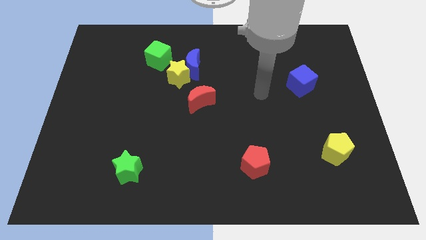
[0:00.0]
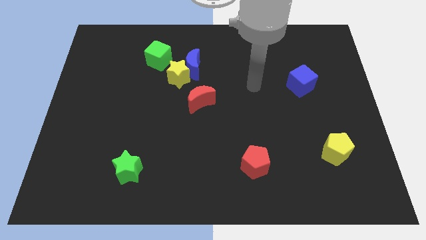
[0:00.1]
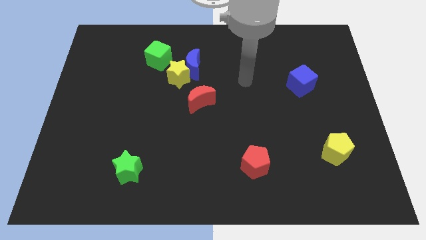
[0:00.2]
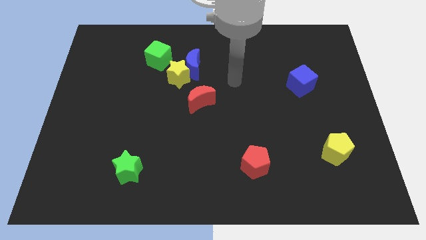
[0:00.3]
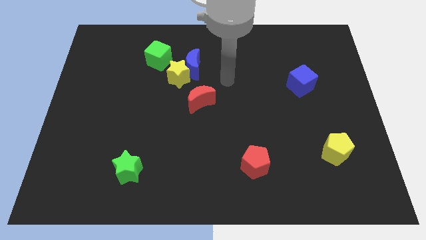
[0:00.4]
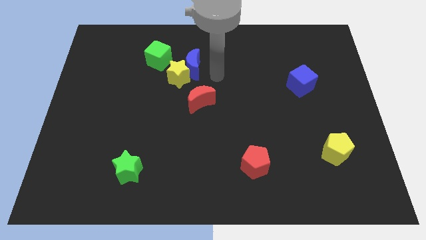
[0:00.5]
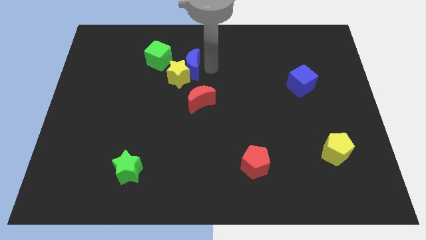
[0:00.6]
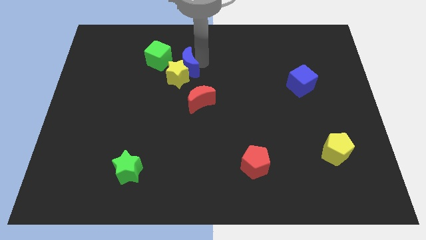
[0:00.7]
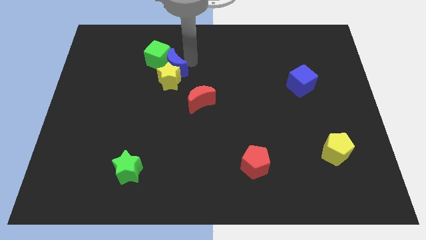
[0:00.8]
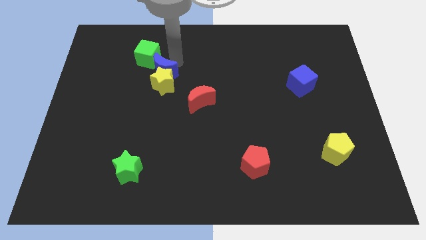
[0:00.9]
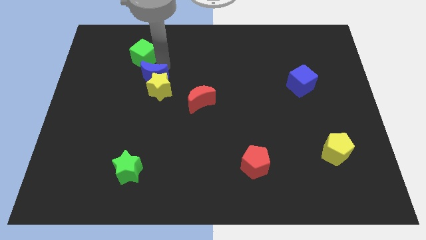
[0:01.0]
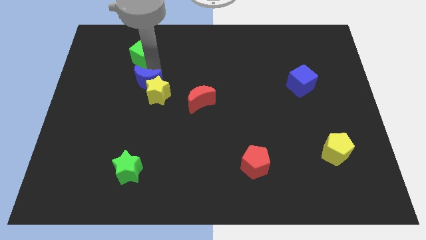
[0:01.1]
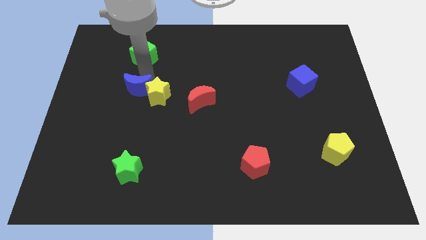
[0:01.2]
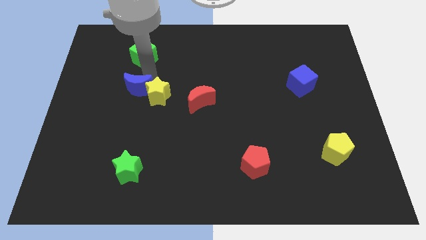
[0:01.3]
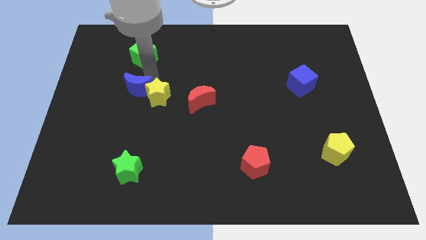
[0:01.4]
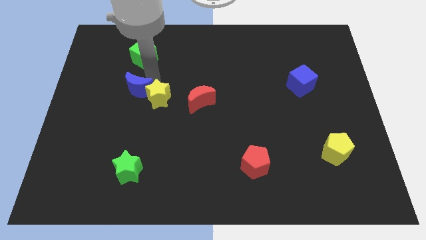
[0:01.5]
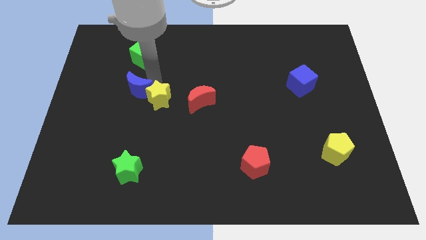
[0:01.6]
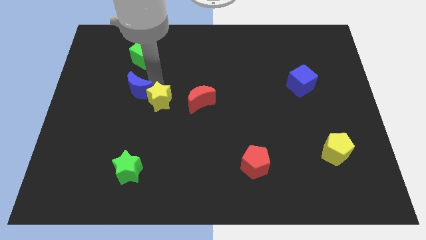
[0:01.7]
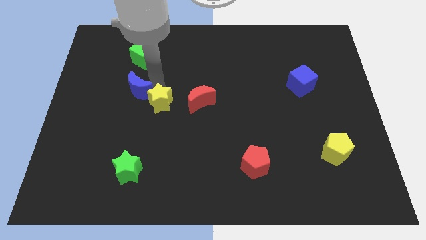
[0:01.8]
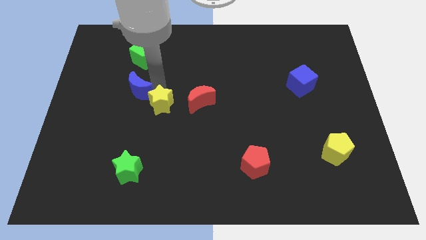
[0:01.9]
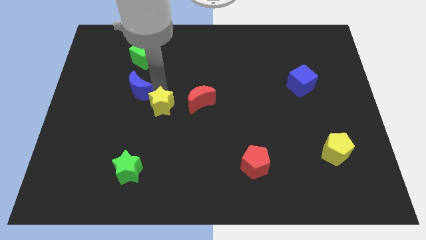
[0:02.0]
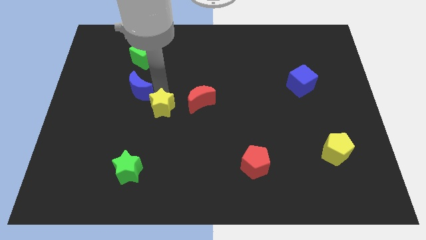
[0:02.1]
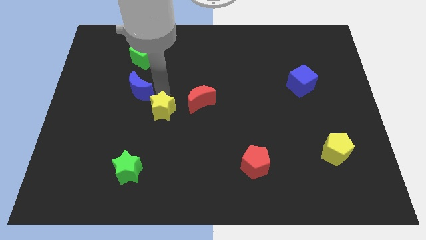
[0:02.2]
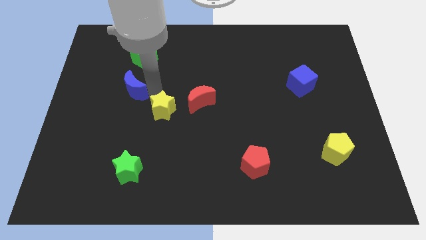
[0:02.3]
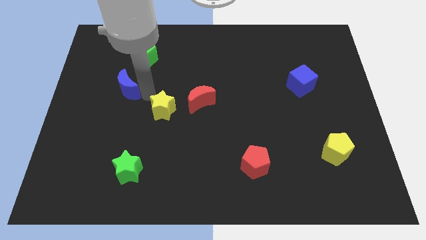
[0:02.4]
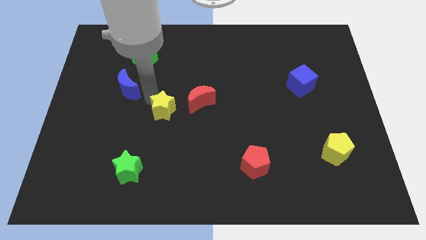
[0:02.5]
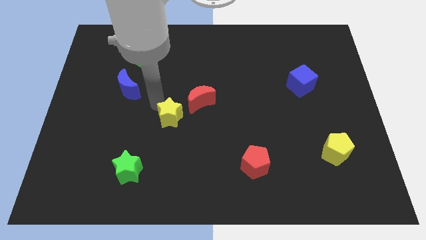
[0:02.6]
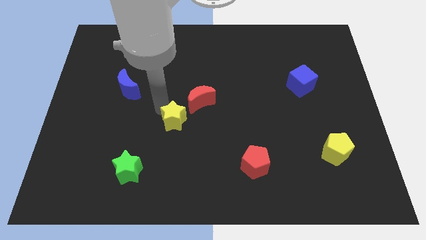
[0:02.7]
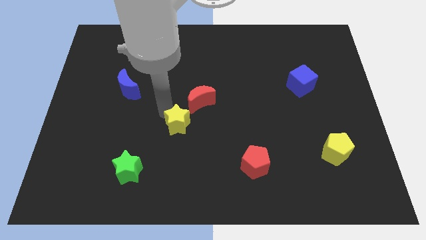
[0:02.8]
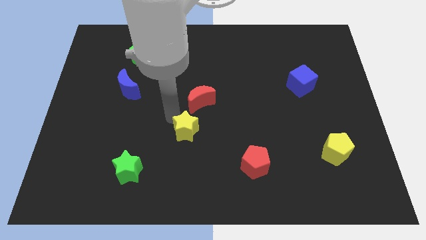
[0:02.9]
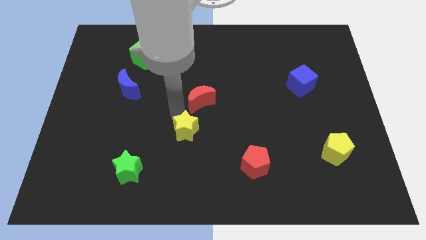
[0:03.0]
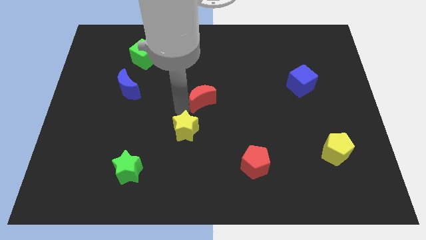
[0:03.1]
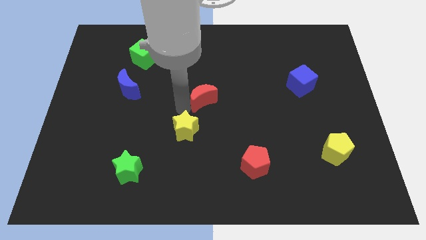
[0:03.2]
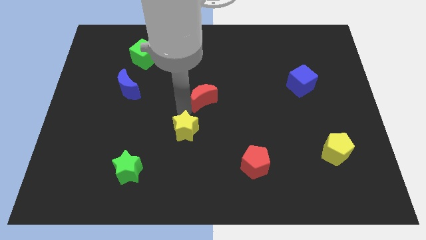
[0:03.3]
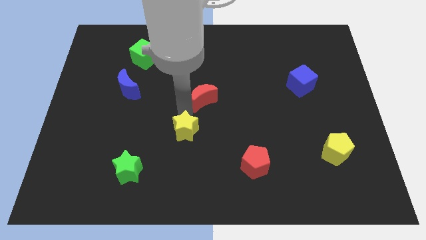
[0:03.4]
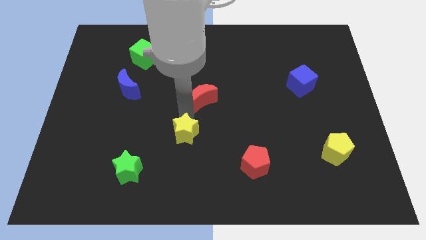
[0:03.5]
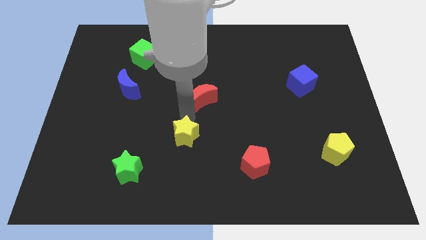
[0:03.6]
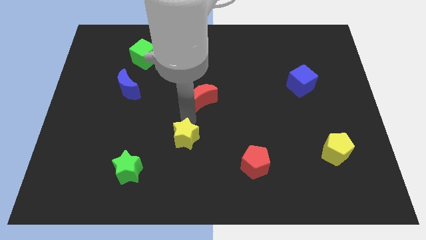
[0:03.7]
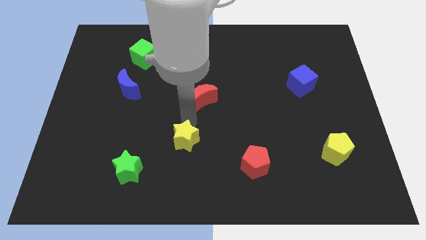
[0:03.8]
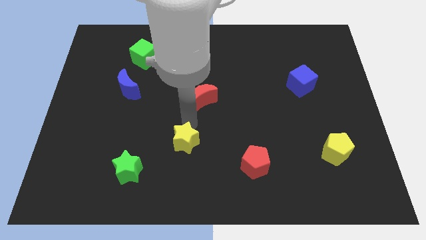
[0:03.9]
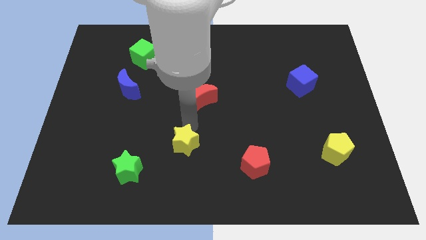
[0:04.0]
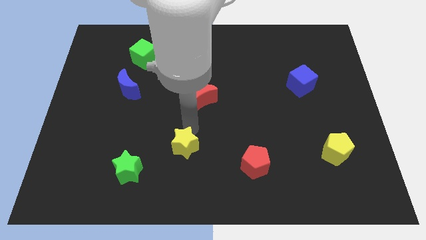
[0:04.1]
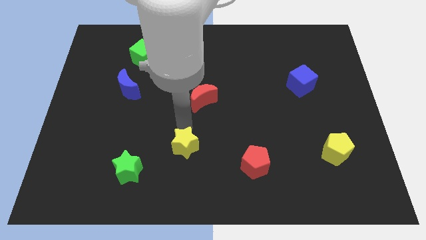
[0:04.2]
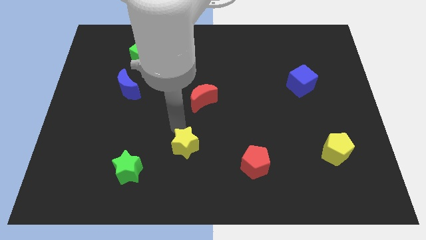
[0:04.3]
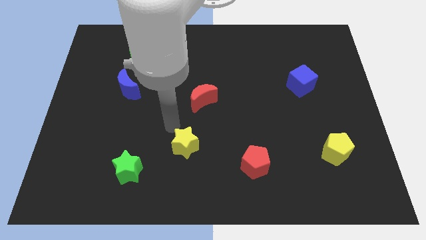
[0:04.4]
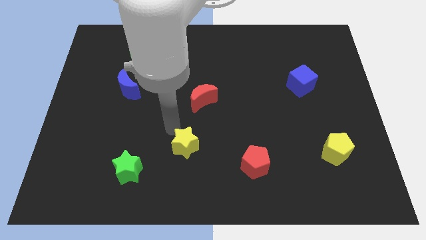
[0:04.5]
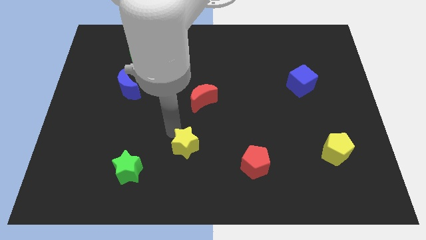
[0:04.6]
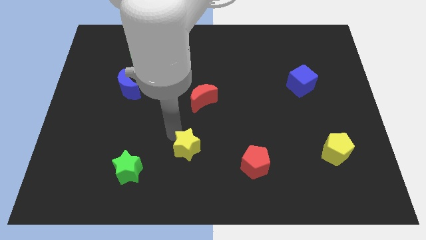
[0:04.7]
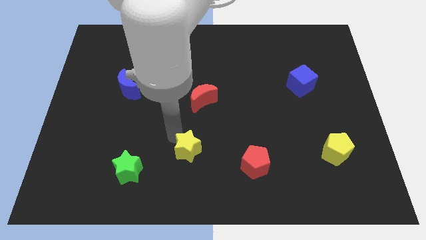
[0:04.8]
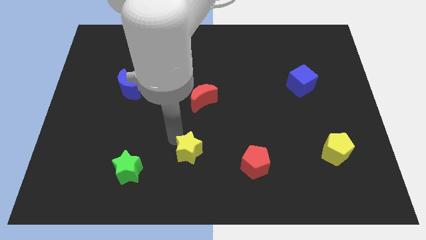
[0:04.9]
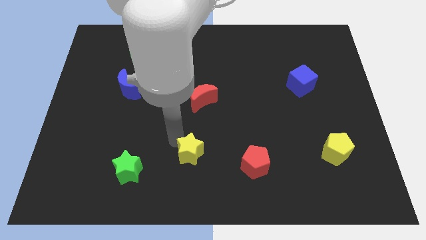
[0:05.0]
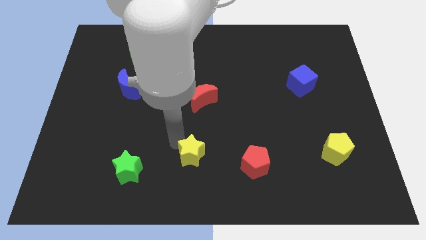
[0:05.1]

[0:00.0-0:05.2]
push the yellow star to the bottom
